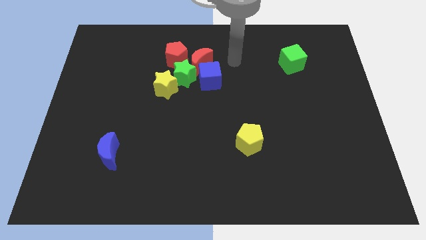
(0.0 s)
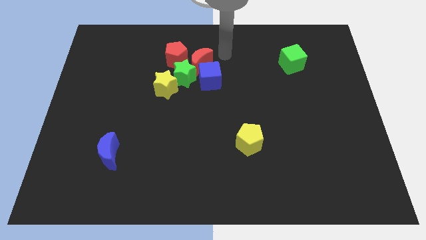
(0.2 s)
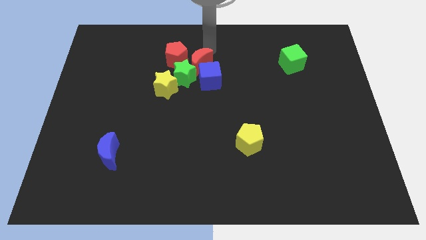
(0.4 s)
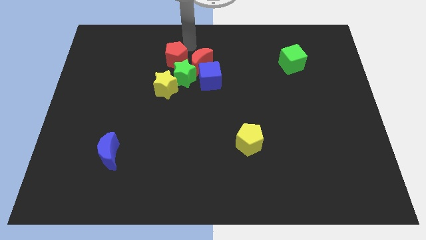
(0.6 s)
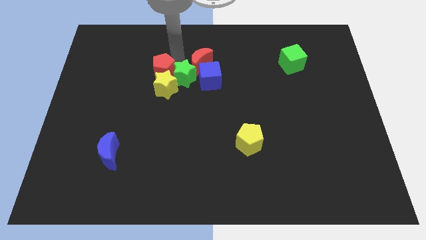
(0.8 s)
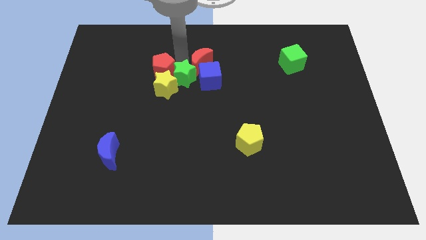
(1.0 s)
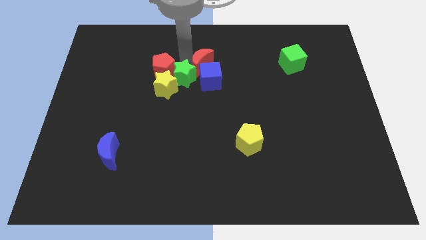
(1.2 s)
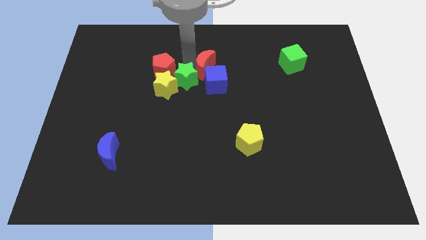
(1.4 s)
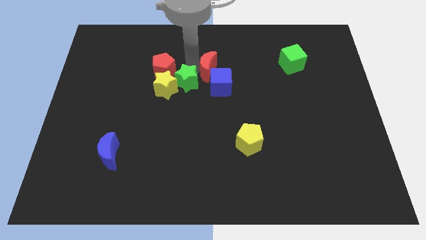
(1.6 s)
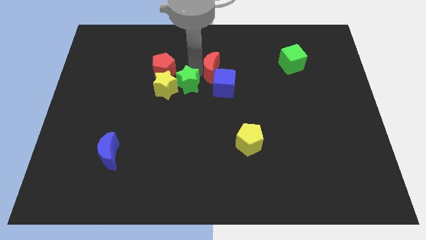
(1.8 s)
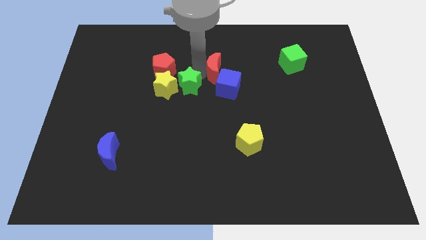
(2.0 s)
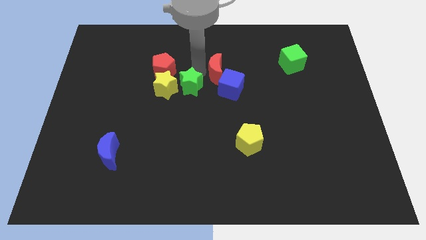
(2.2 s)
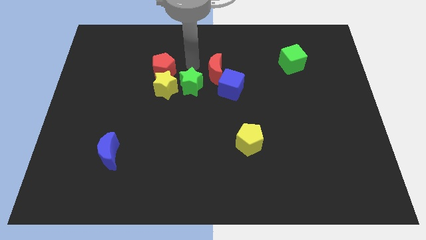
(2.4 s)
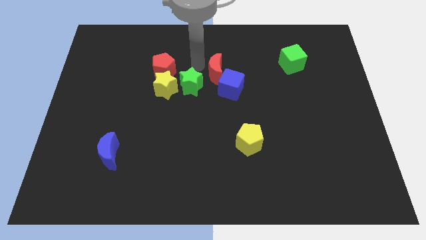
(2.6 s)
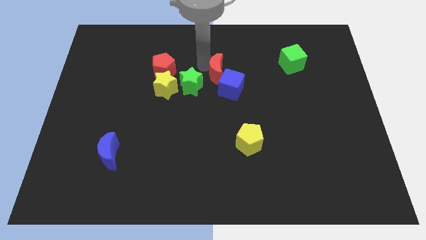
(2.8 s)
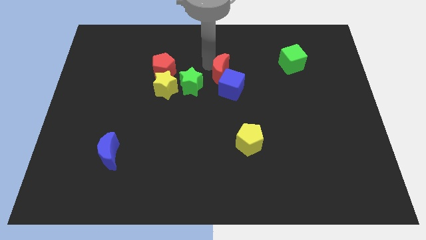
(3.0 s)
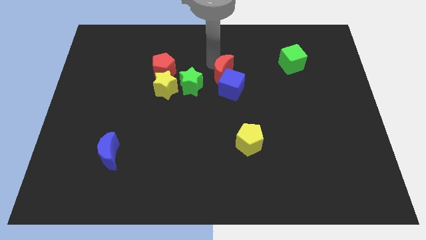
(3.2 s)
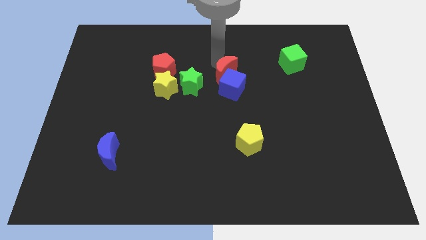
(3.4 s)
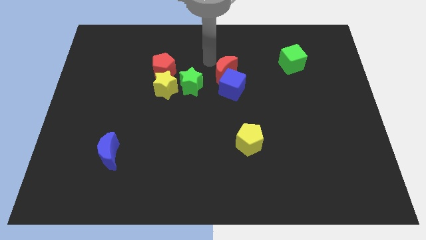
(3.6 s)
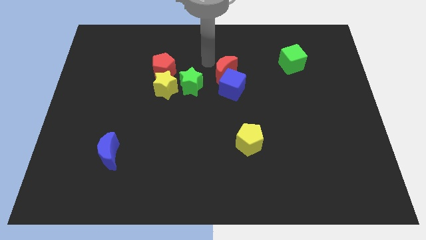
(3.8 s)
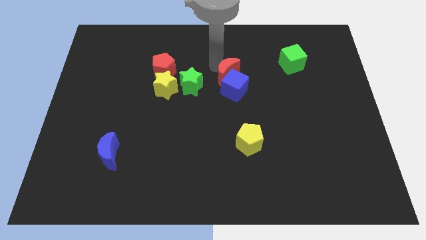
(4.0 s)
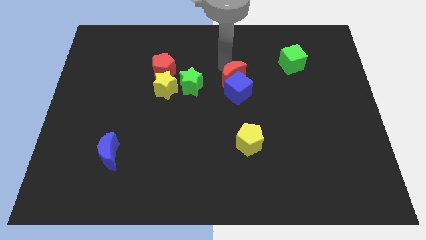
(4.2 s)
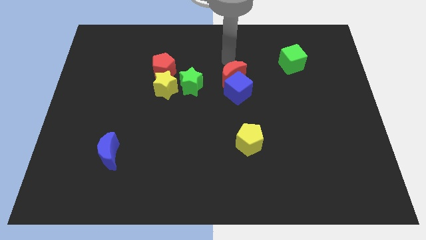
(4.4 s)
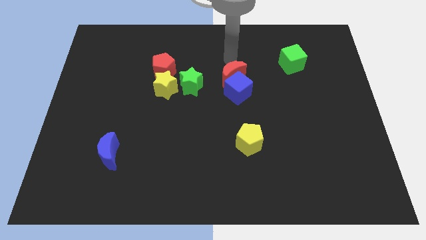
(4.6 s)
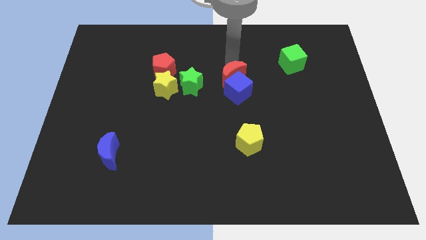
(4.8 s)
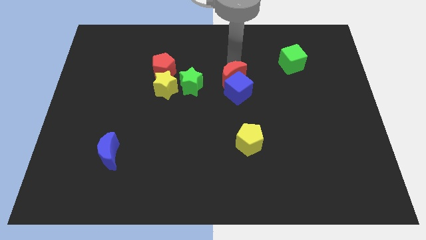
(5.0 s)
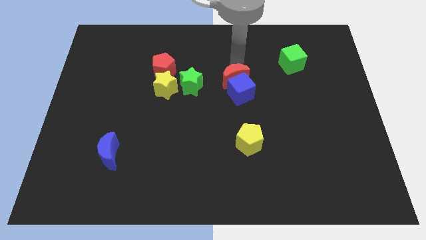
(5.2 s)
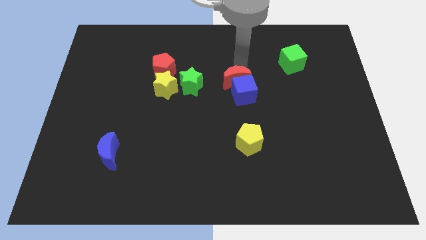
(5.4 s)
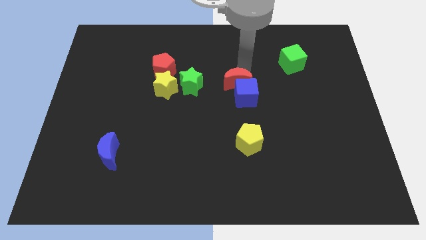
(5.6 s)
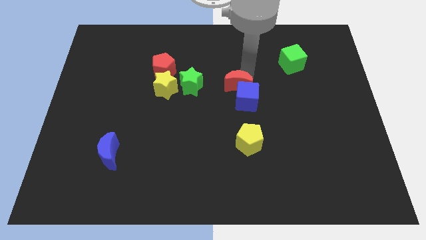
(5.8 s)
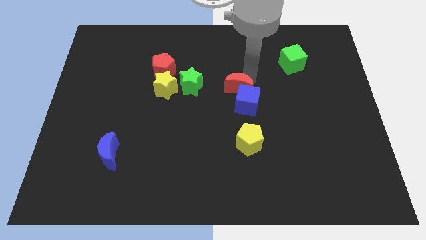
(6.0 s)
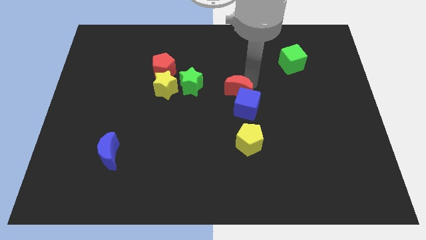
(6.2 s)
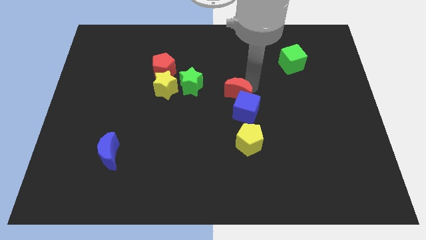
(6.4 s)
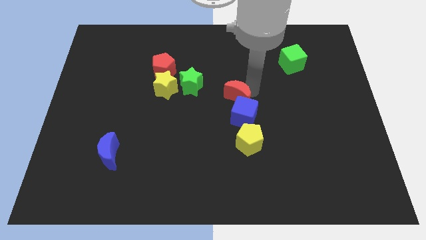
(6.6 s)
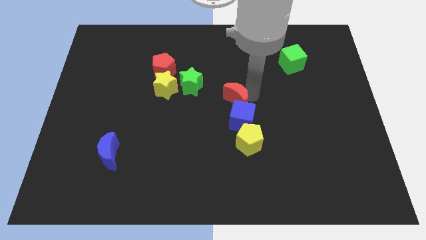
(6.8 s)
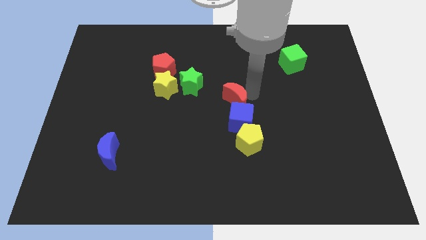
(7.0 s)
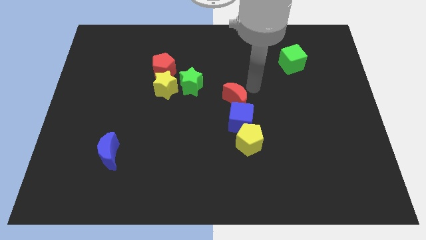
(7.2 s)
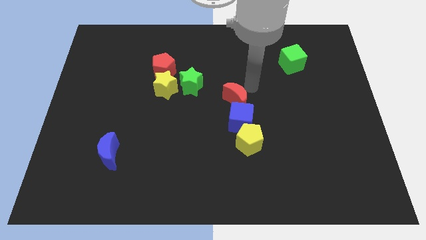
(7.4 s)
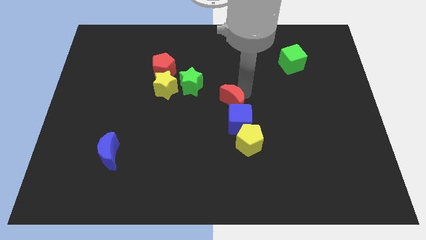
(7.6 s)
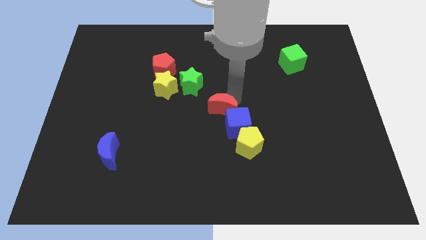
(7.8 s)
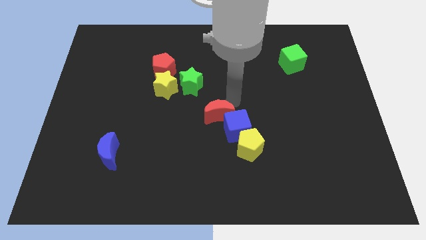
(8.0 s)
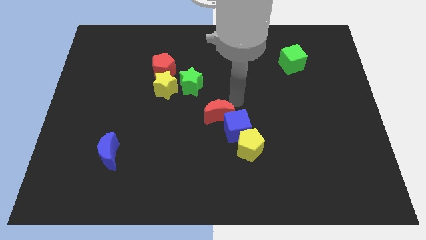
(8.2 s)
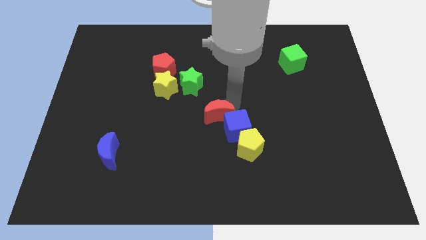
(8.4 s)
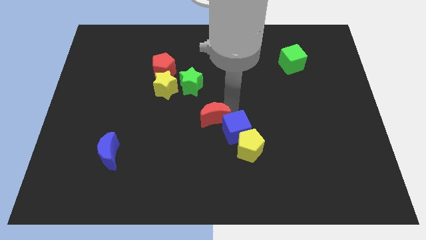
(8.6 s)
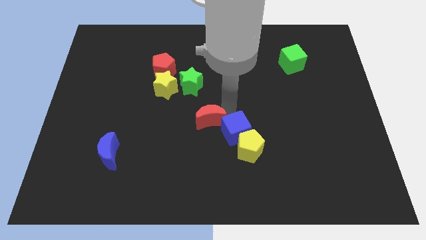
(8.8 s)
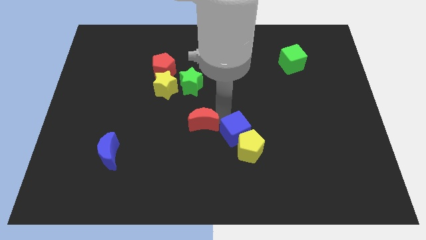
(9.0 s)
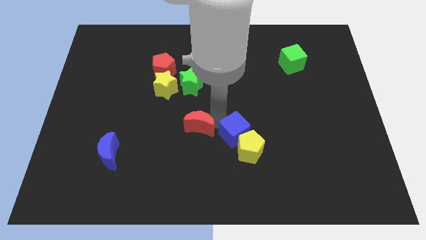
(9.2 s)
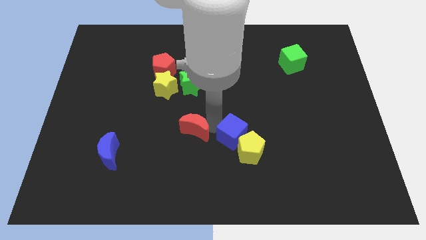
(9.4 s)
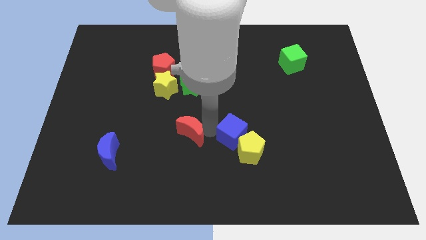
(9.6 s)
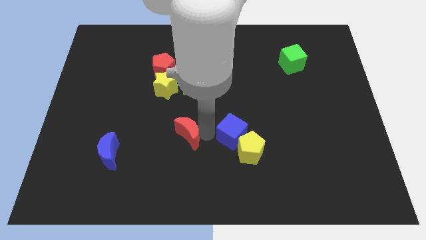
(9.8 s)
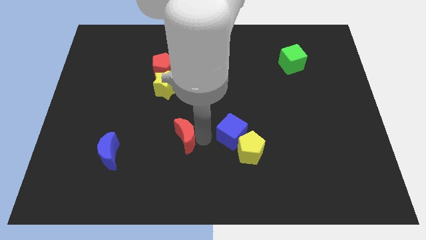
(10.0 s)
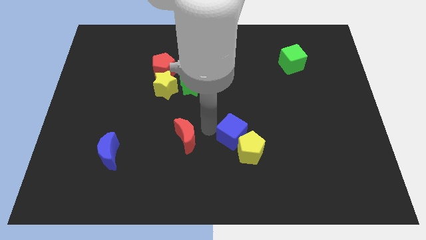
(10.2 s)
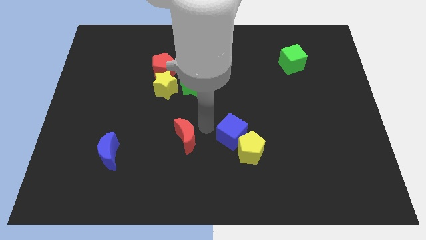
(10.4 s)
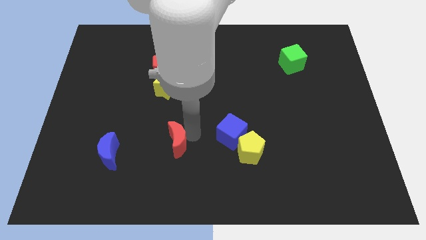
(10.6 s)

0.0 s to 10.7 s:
push the red moon just right of the blue moon

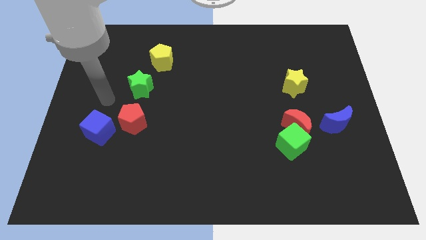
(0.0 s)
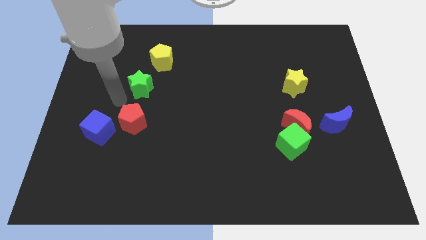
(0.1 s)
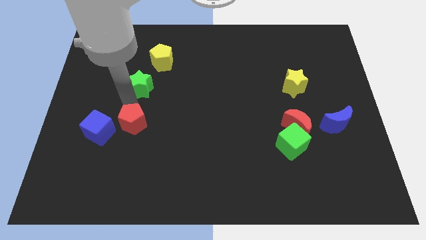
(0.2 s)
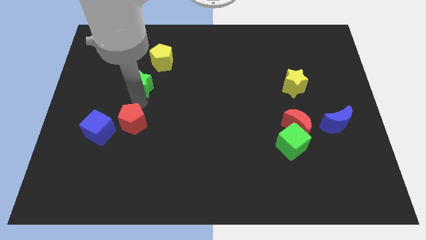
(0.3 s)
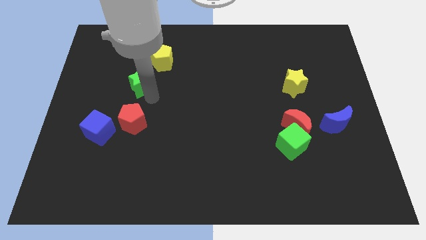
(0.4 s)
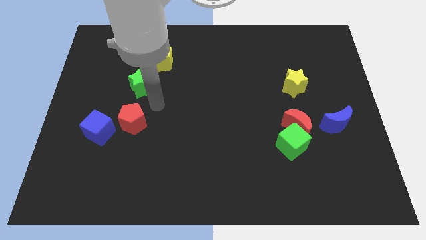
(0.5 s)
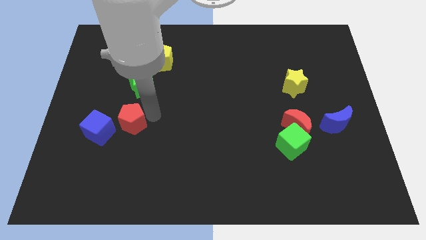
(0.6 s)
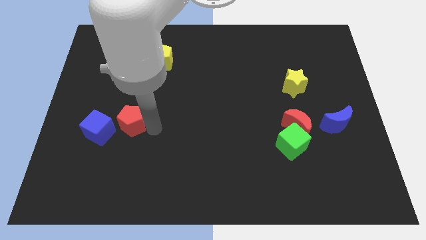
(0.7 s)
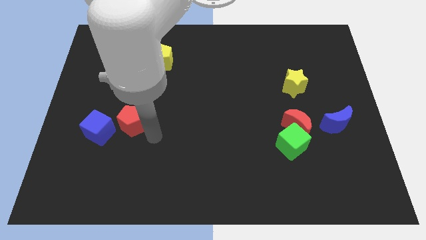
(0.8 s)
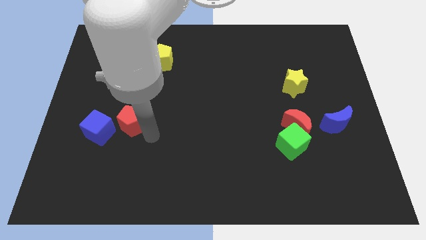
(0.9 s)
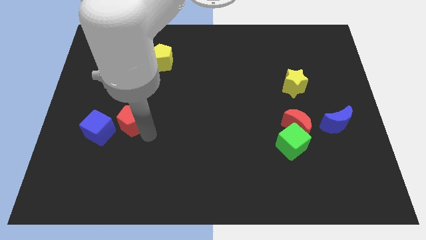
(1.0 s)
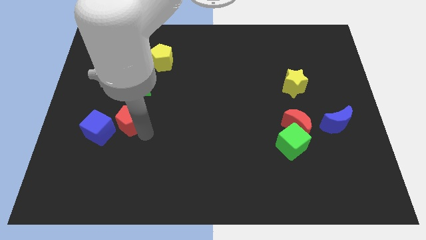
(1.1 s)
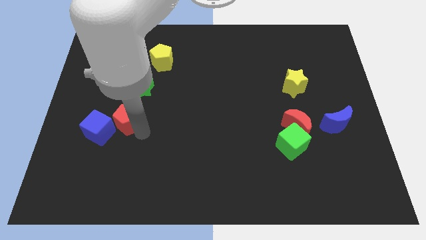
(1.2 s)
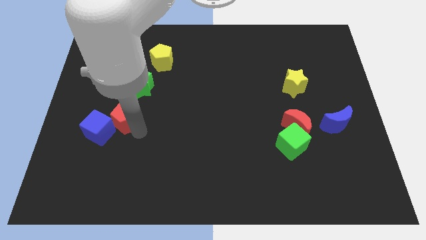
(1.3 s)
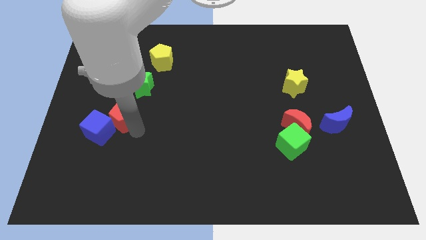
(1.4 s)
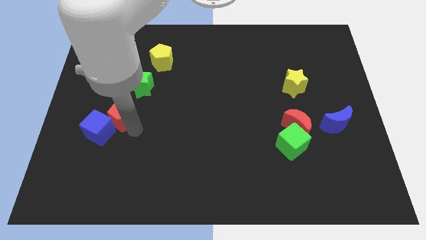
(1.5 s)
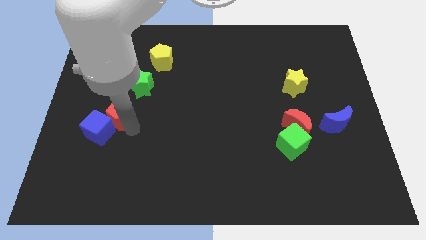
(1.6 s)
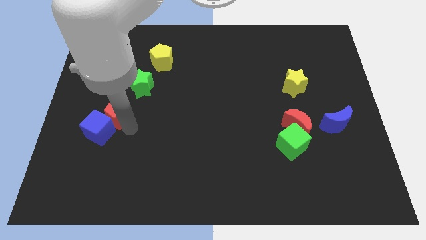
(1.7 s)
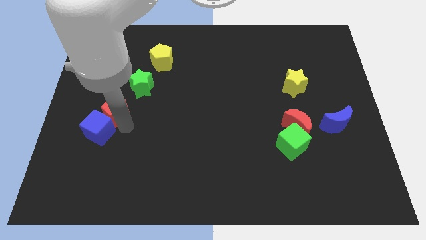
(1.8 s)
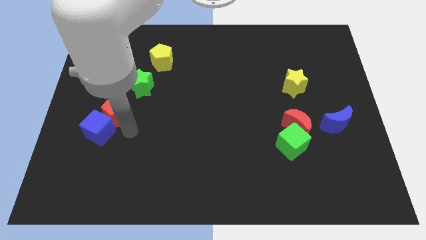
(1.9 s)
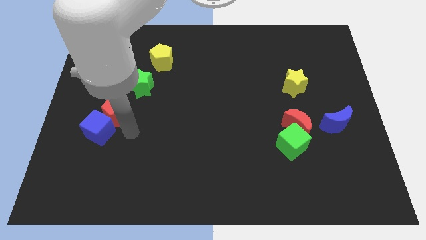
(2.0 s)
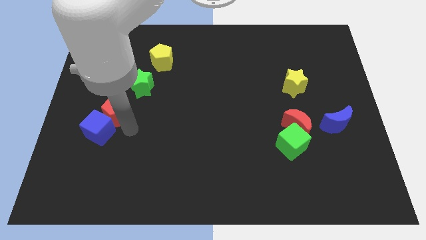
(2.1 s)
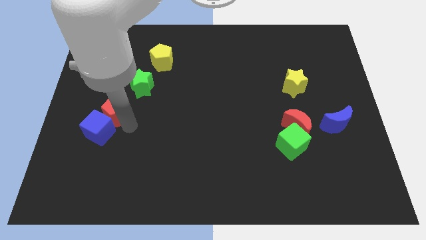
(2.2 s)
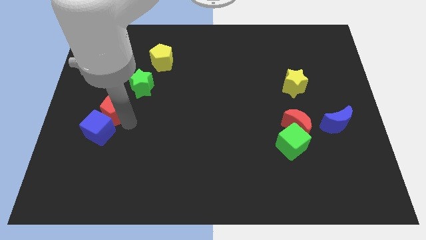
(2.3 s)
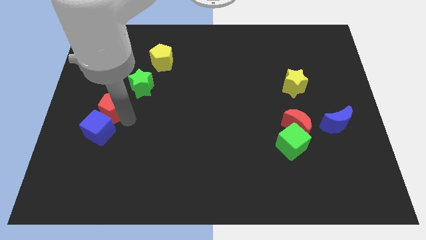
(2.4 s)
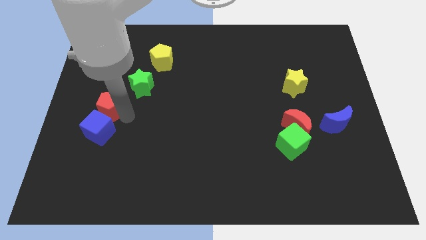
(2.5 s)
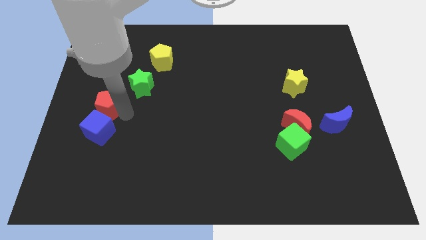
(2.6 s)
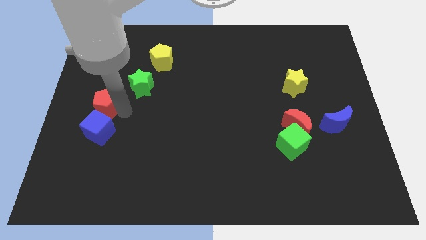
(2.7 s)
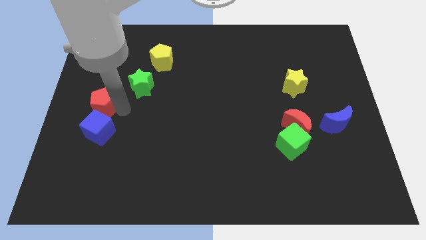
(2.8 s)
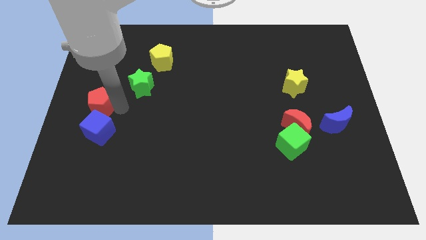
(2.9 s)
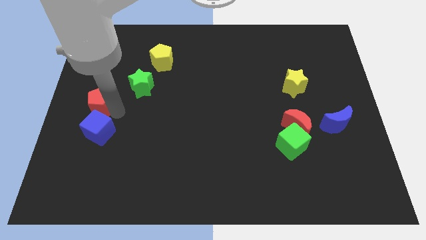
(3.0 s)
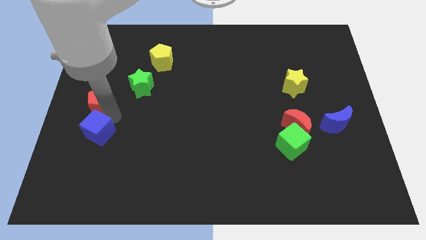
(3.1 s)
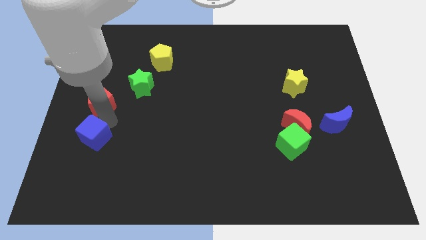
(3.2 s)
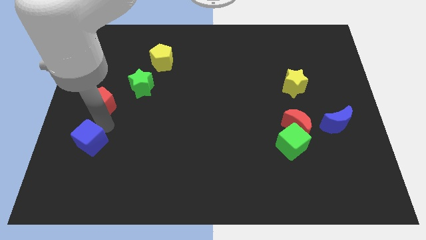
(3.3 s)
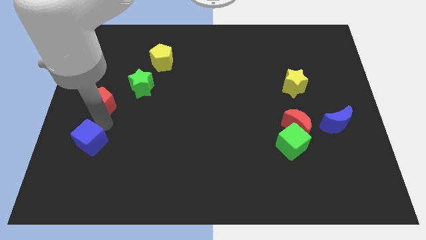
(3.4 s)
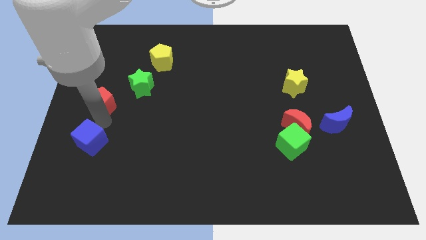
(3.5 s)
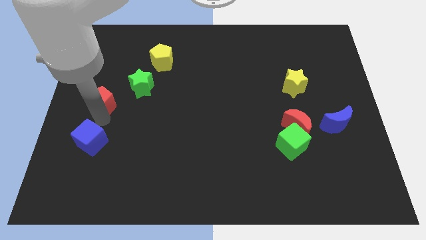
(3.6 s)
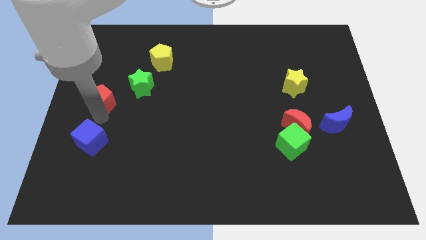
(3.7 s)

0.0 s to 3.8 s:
push the red pentagon just left of the green star
